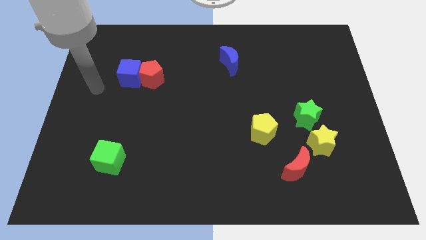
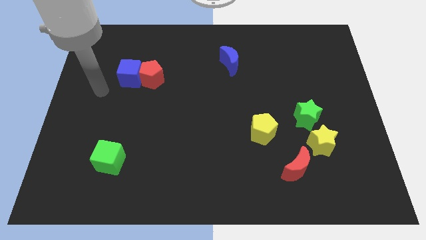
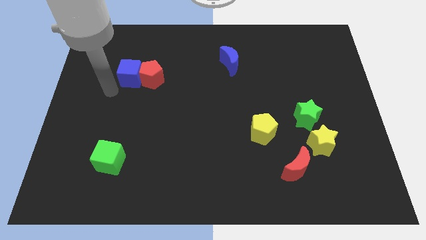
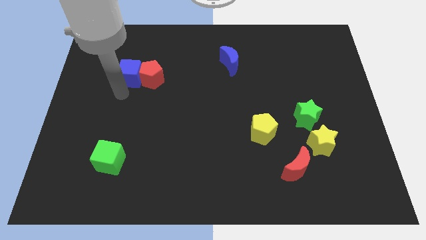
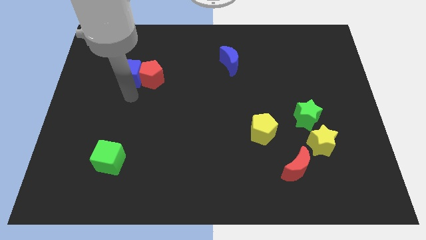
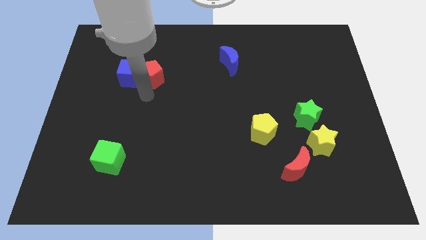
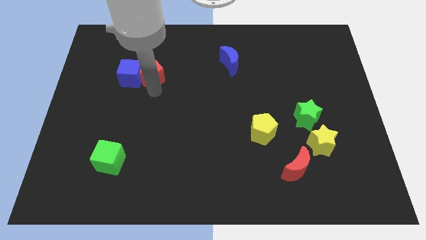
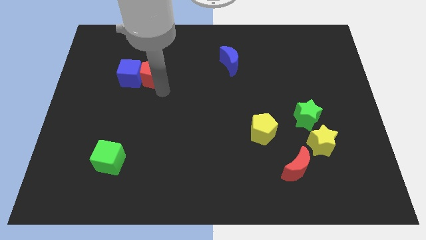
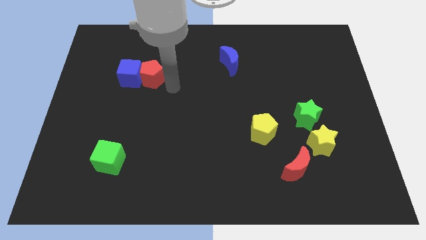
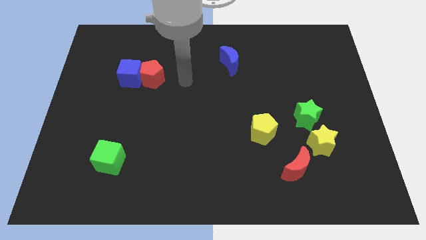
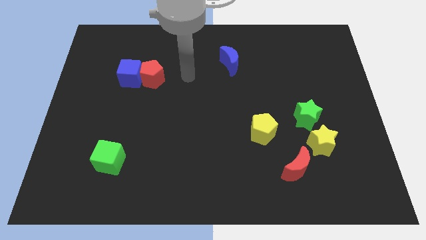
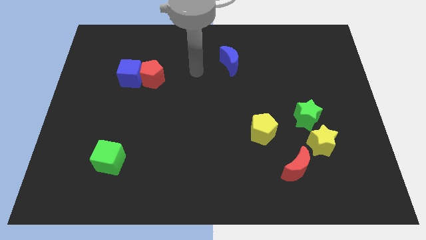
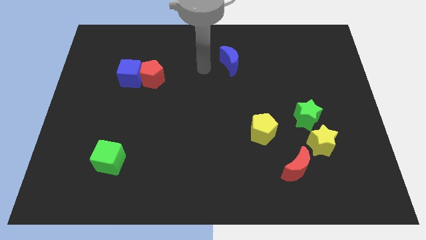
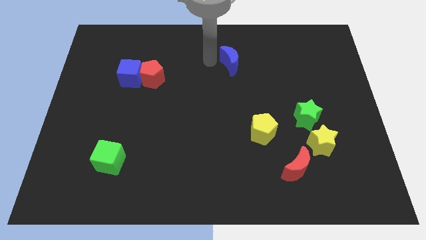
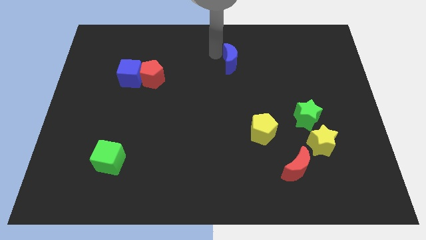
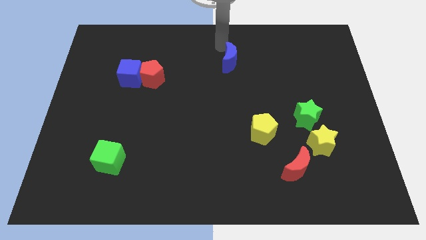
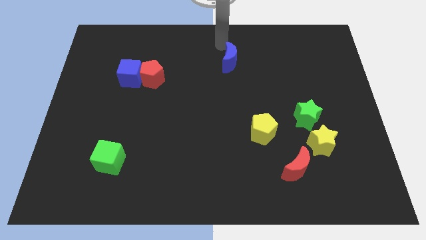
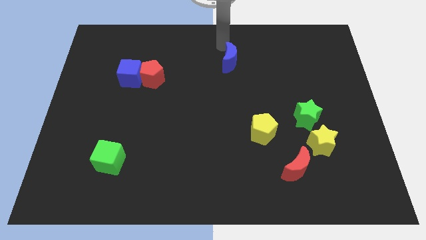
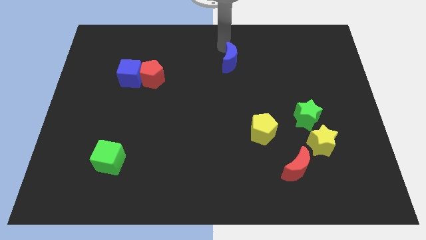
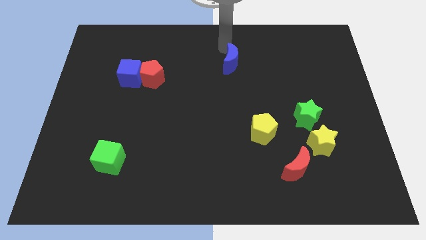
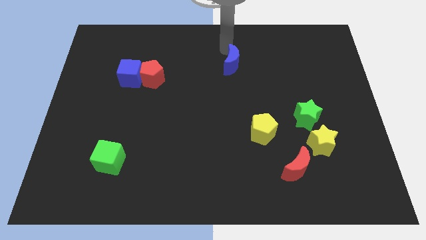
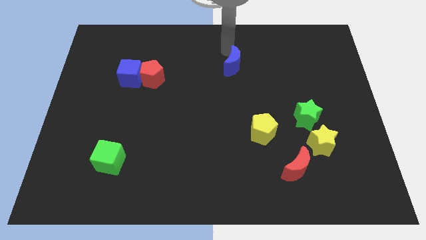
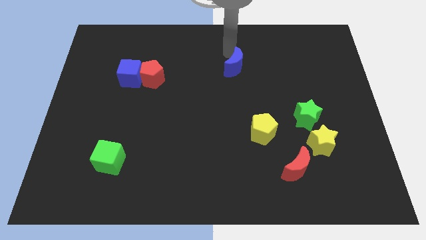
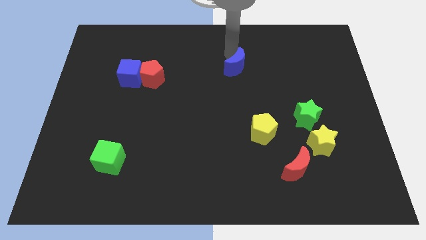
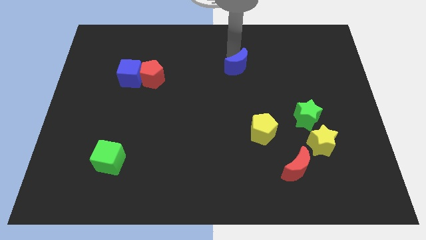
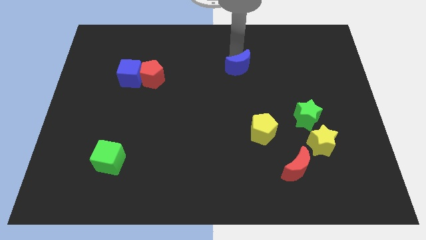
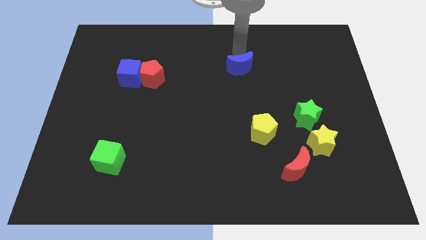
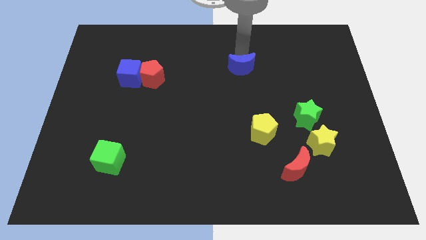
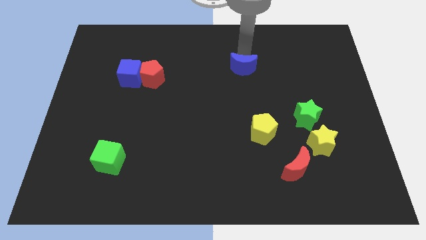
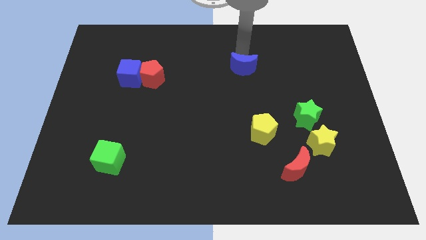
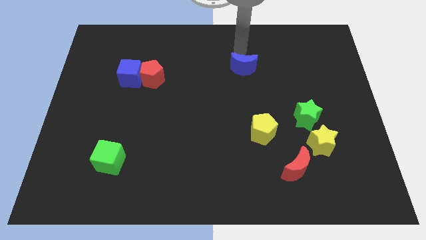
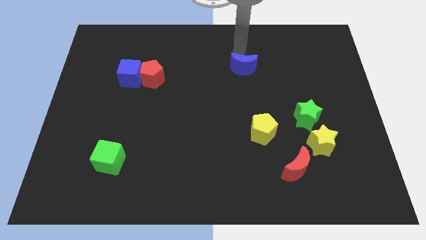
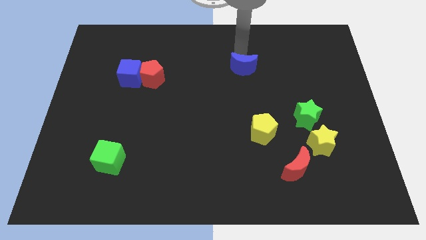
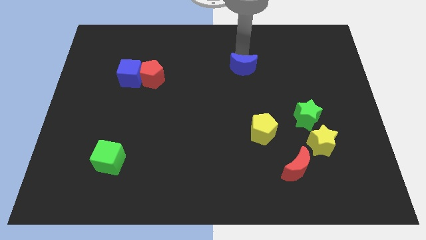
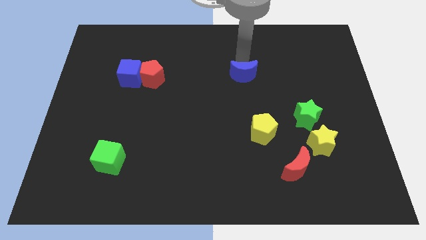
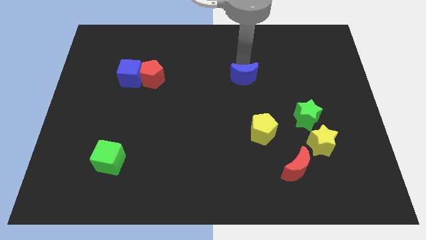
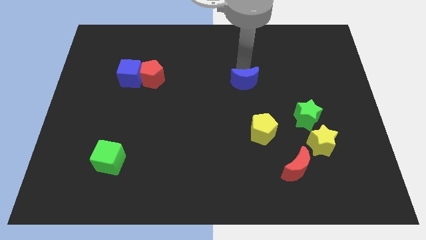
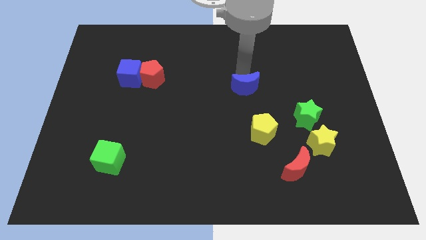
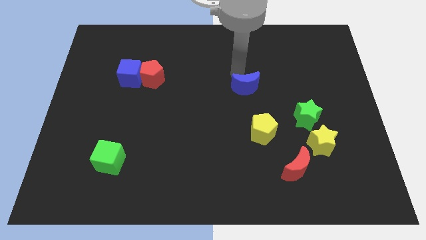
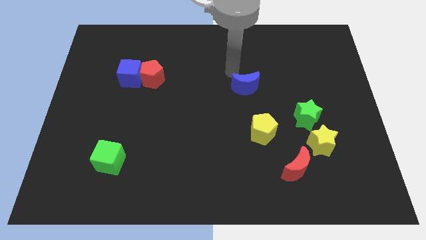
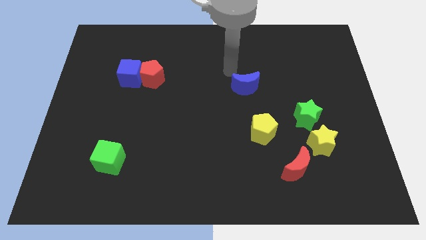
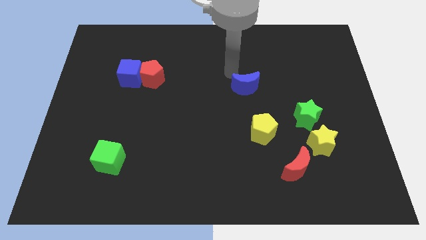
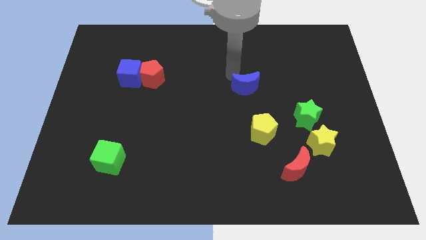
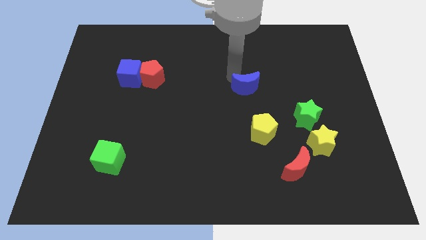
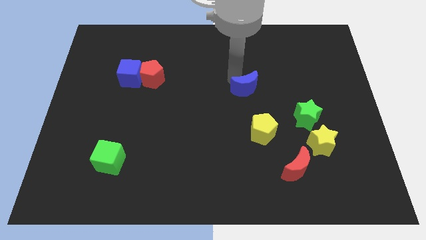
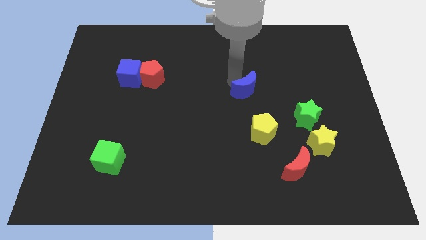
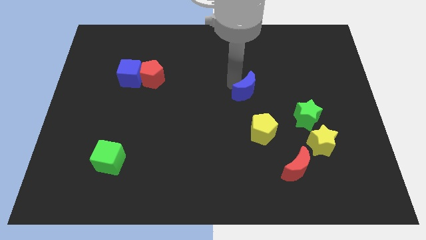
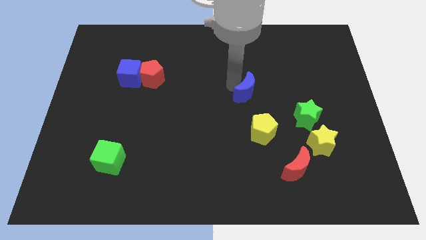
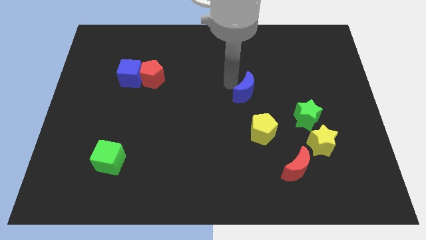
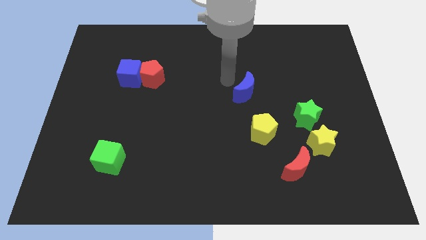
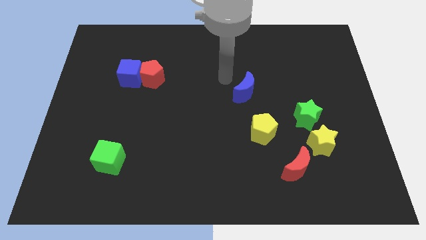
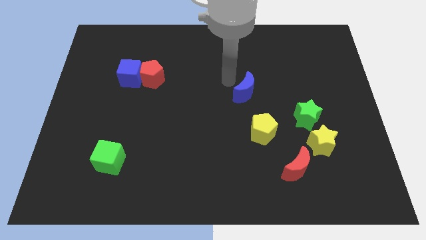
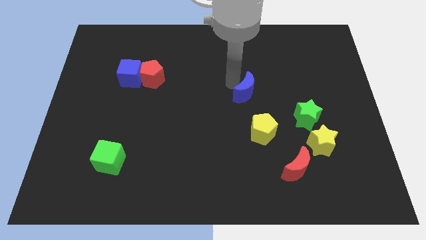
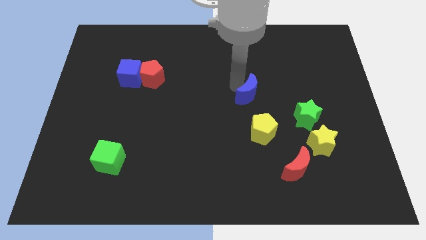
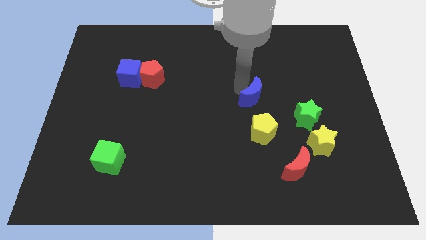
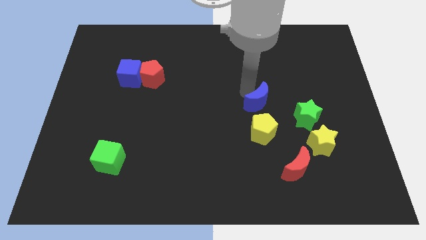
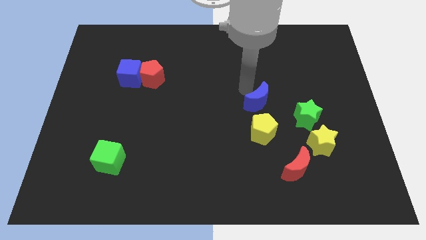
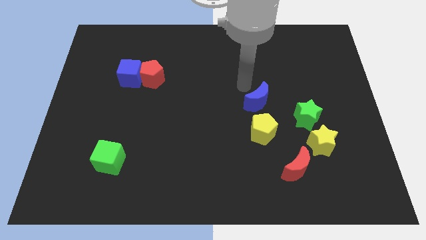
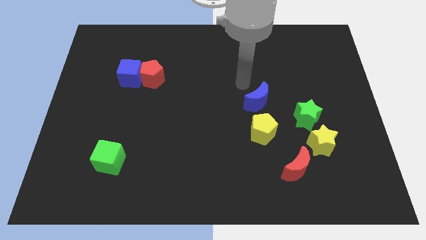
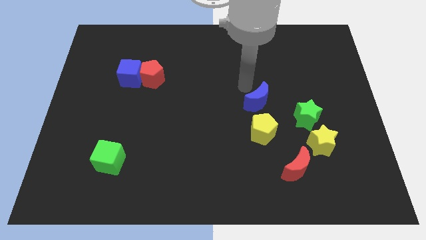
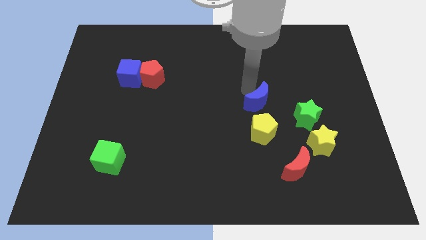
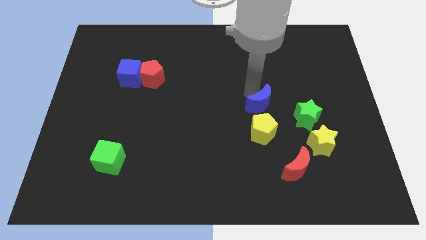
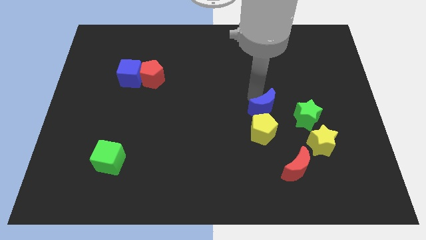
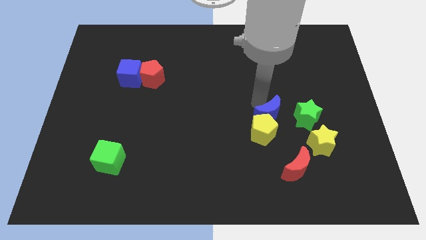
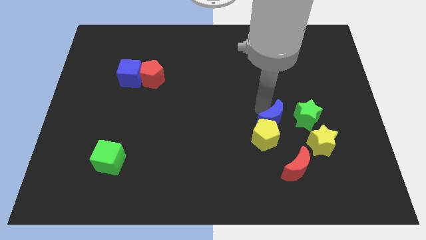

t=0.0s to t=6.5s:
push the blue moon above the red moon

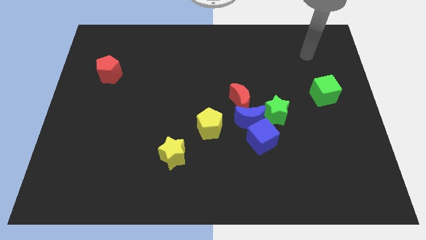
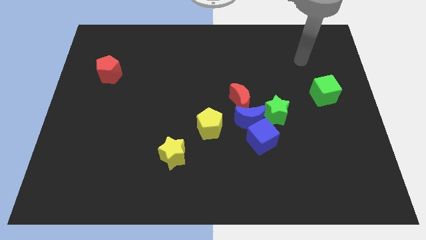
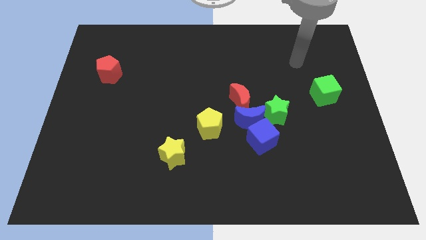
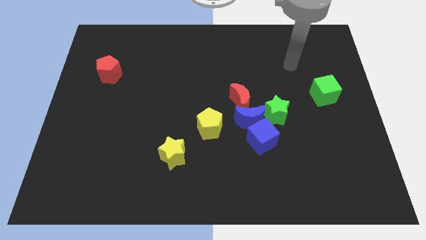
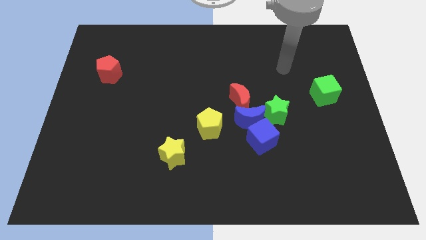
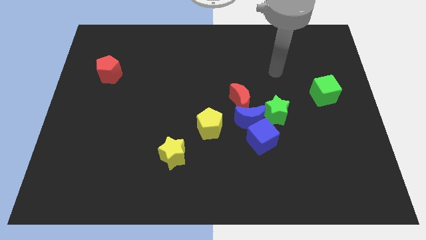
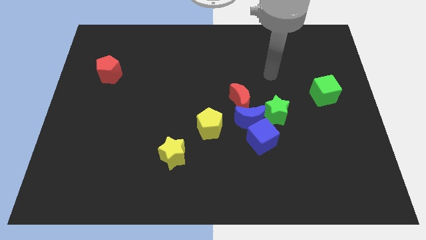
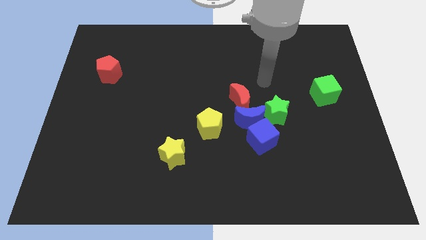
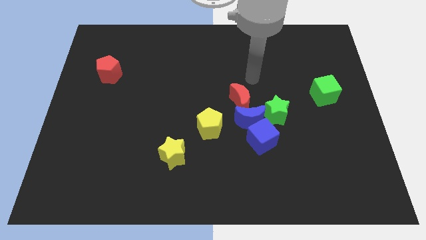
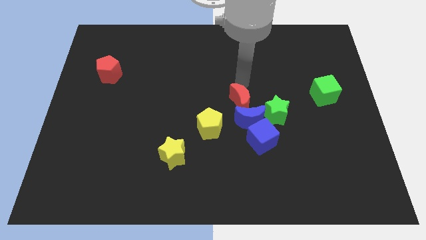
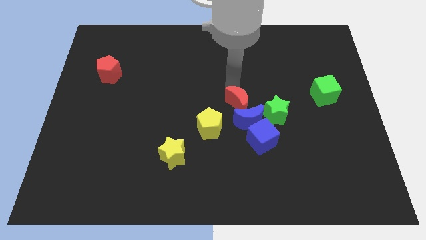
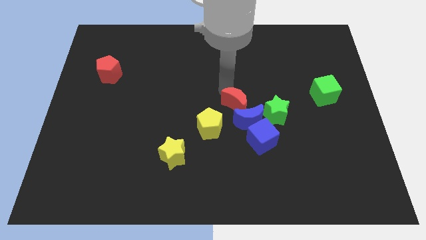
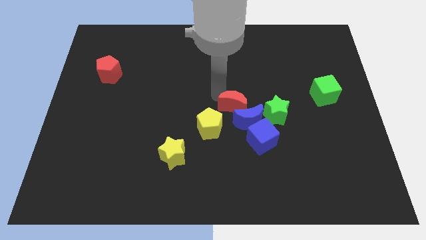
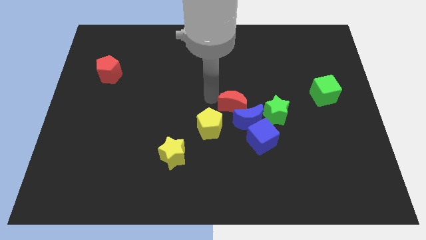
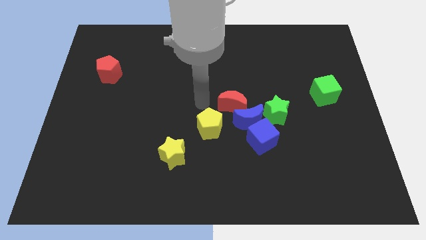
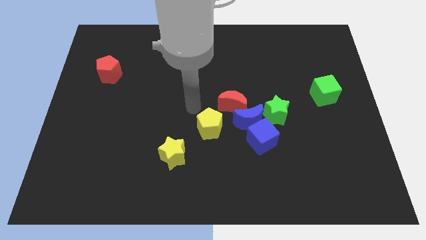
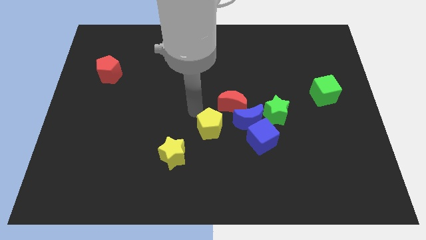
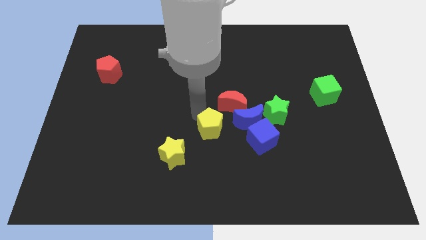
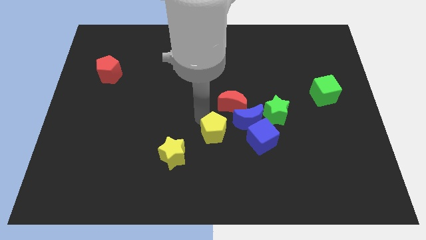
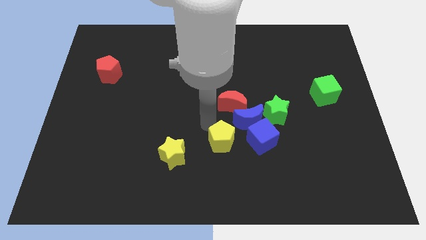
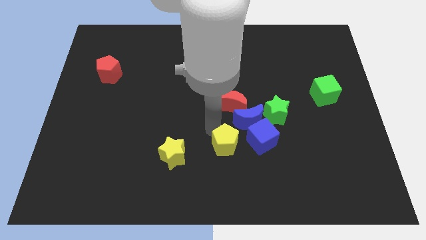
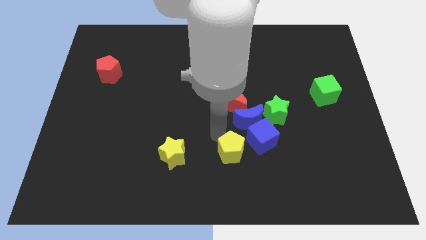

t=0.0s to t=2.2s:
push the yellow pentagon to the bottom left of the blue cube
